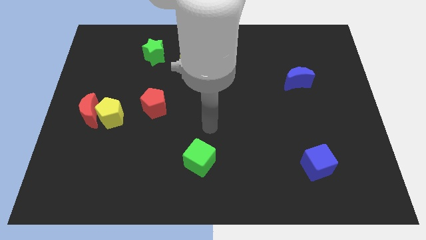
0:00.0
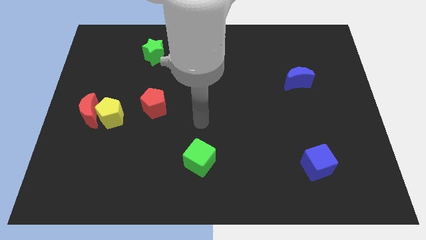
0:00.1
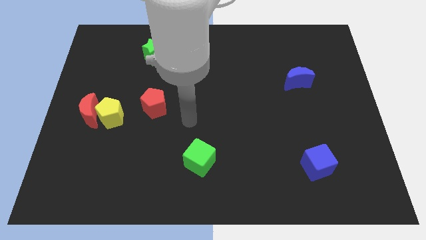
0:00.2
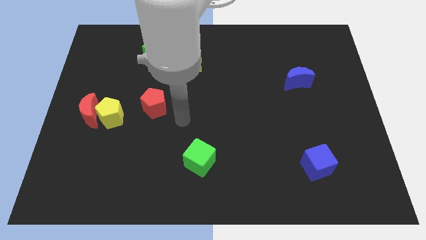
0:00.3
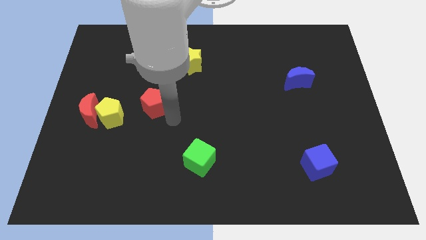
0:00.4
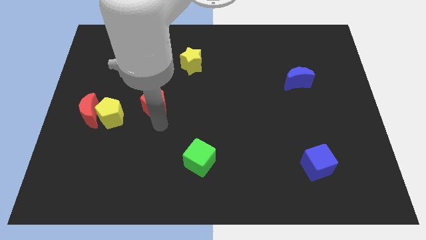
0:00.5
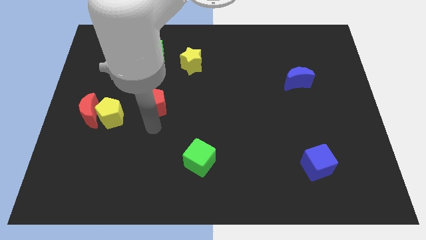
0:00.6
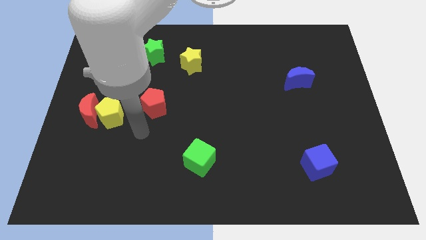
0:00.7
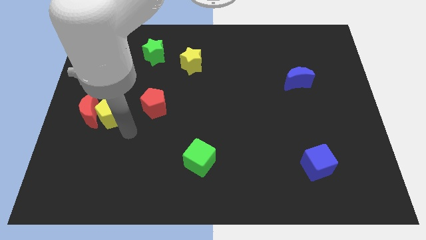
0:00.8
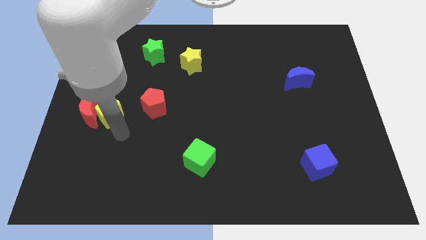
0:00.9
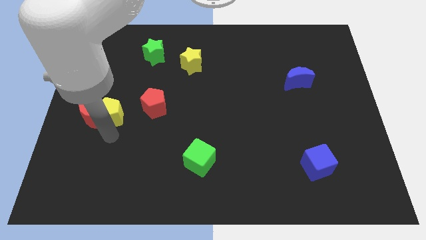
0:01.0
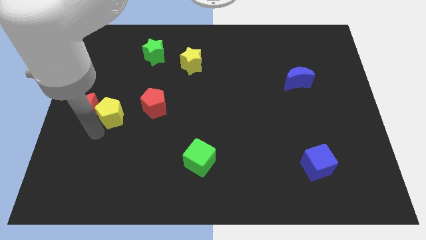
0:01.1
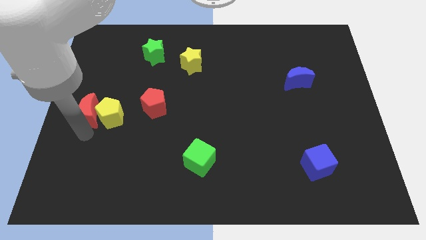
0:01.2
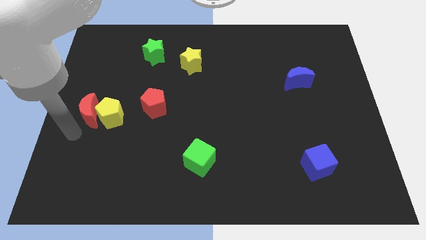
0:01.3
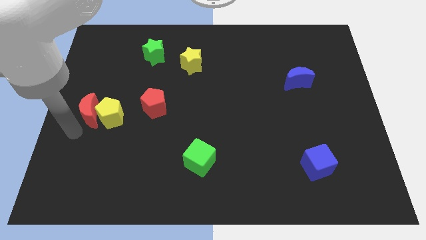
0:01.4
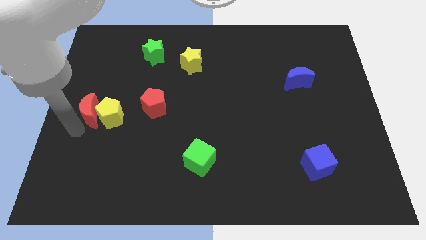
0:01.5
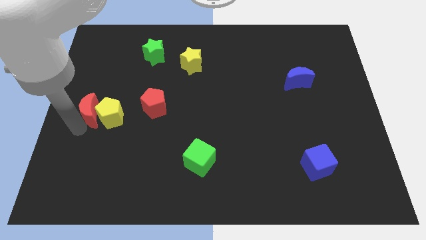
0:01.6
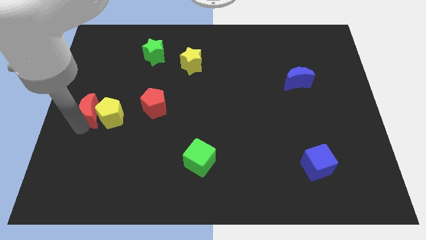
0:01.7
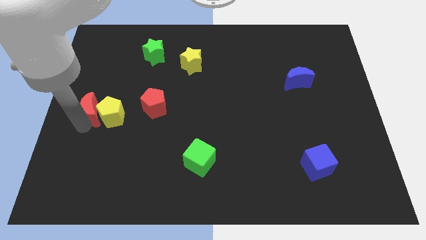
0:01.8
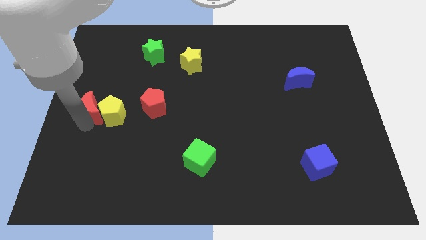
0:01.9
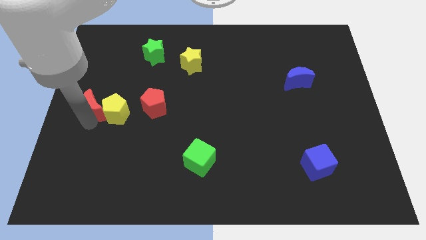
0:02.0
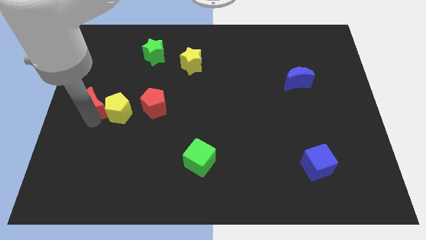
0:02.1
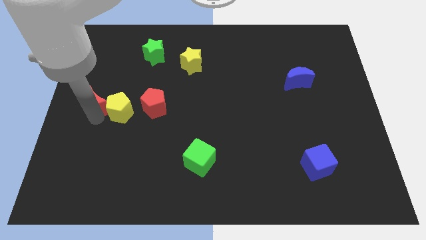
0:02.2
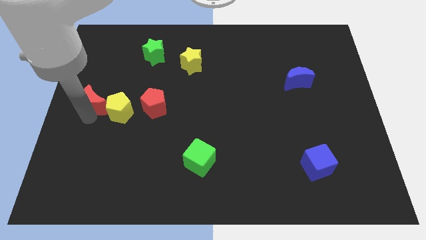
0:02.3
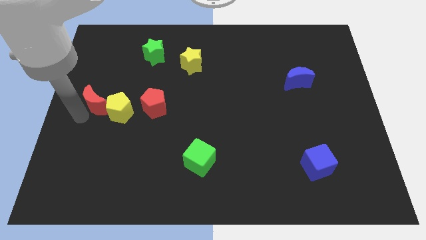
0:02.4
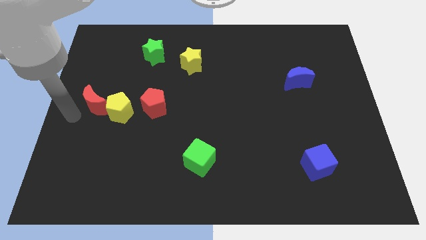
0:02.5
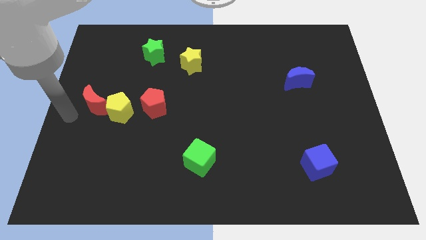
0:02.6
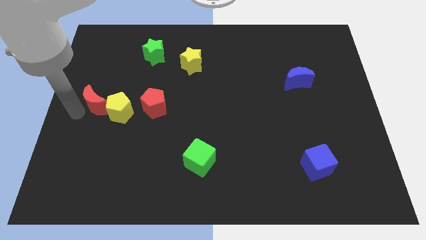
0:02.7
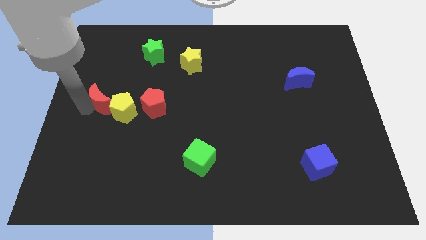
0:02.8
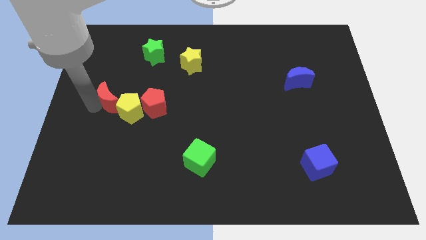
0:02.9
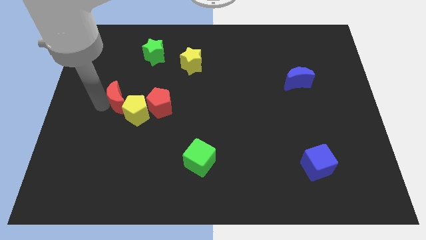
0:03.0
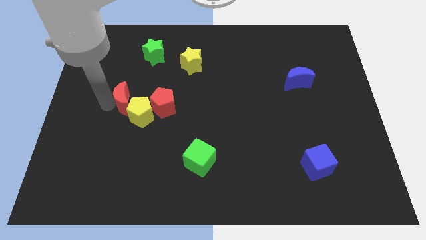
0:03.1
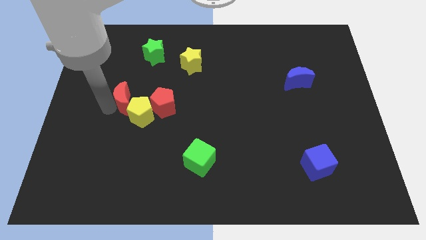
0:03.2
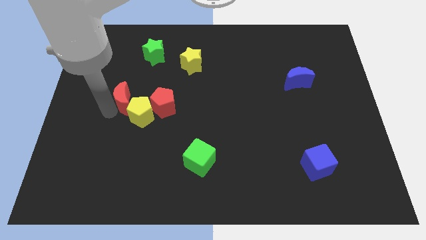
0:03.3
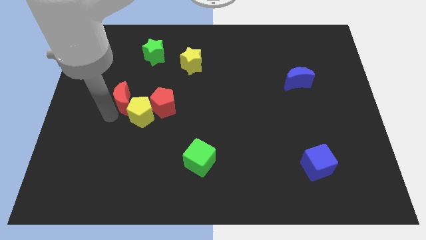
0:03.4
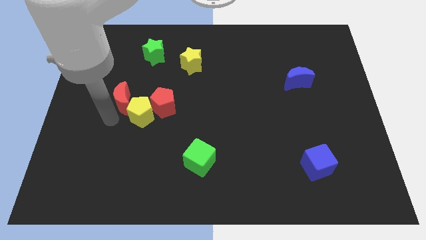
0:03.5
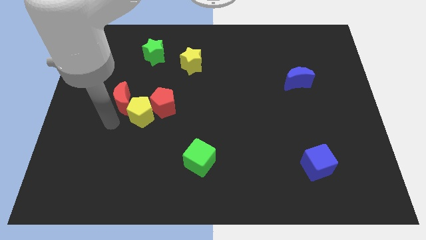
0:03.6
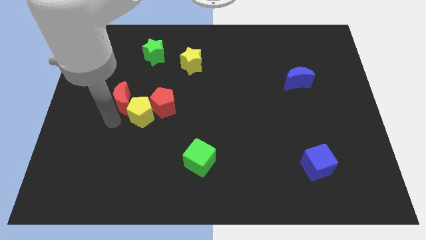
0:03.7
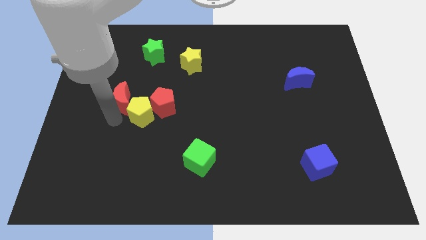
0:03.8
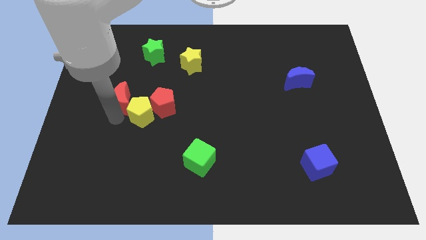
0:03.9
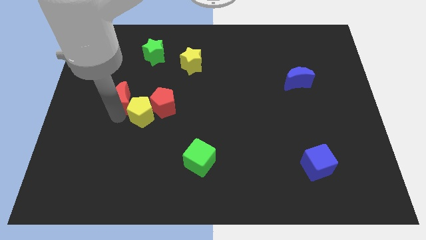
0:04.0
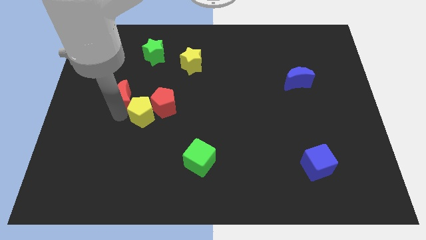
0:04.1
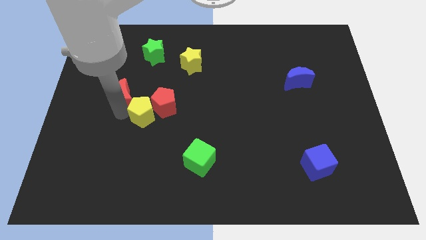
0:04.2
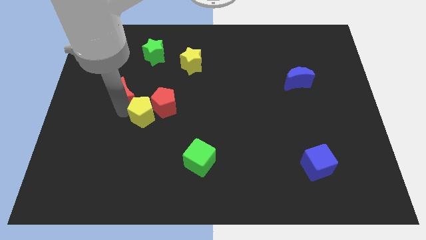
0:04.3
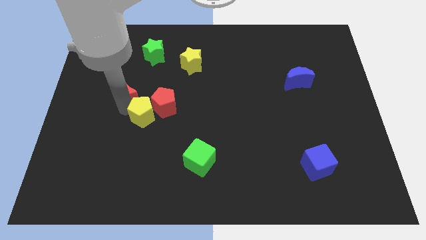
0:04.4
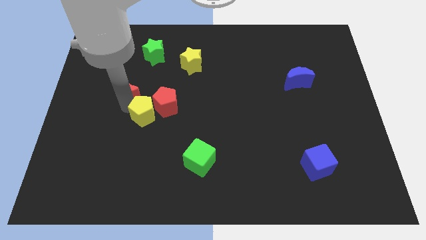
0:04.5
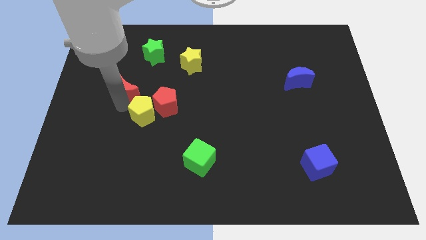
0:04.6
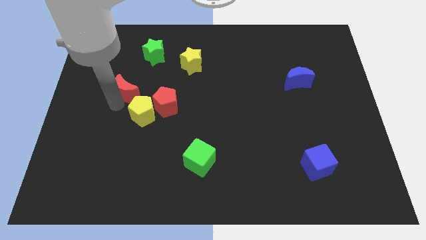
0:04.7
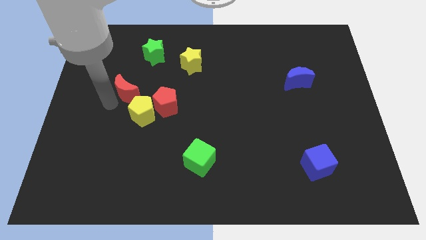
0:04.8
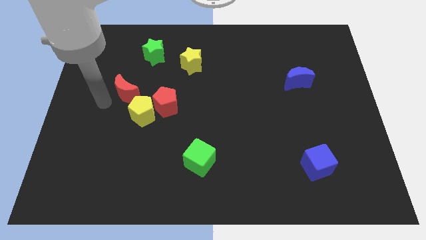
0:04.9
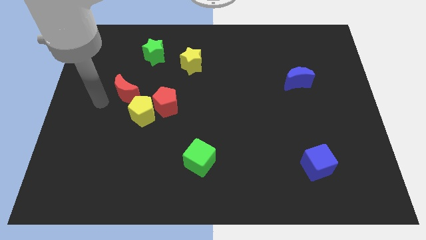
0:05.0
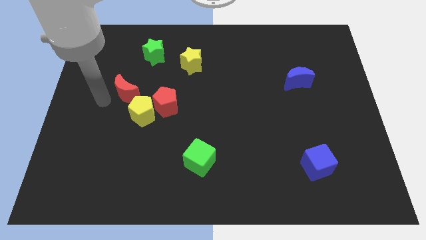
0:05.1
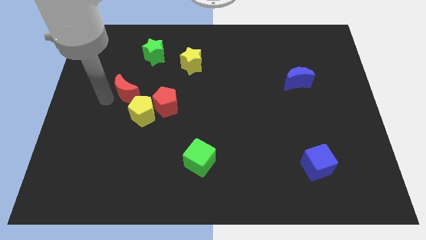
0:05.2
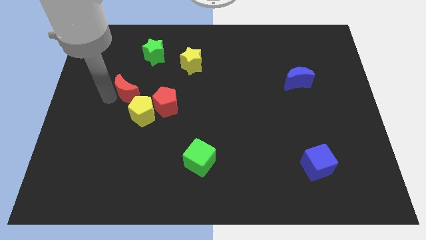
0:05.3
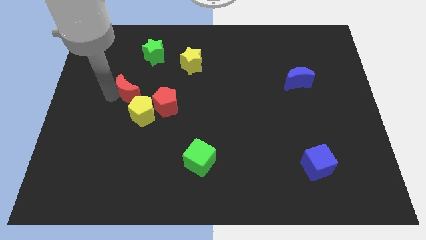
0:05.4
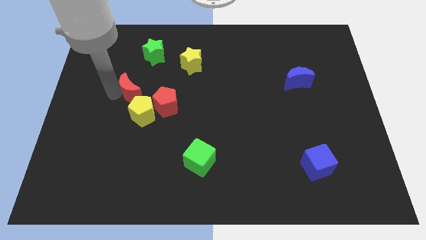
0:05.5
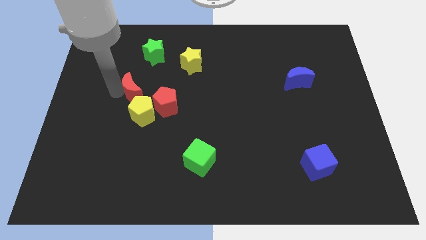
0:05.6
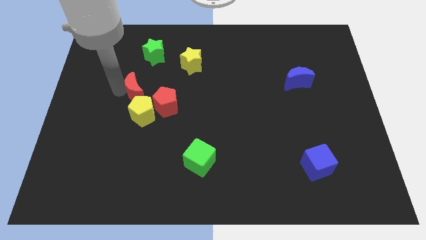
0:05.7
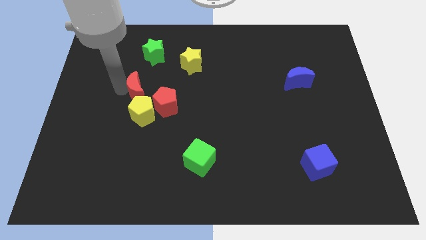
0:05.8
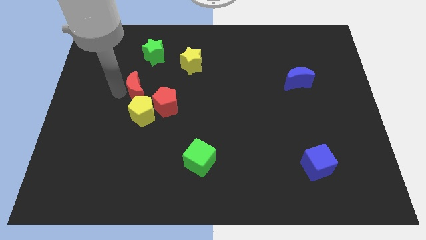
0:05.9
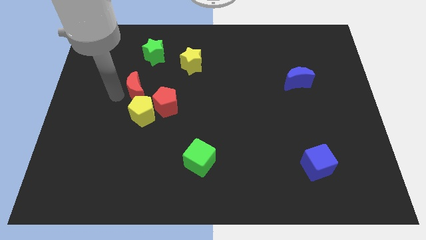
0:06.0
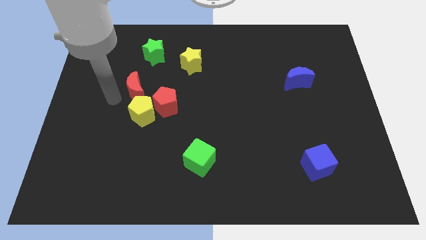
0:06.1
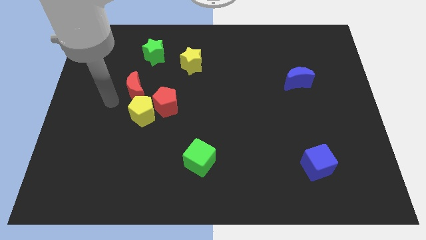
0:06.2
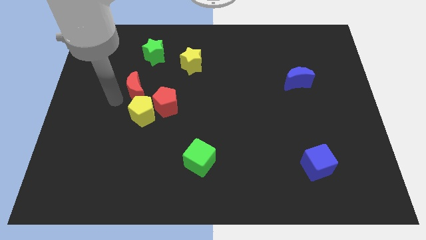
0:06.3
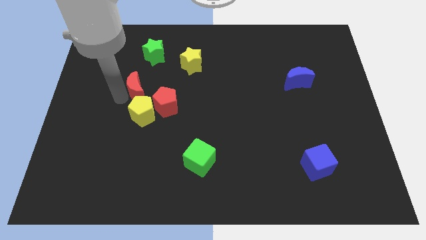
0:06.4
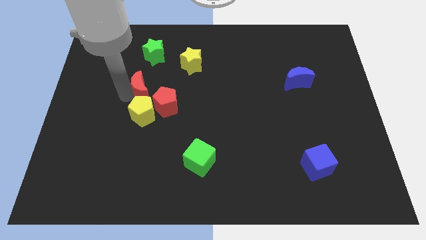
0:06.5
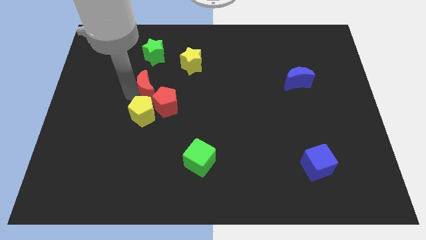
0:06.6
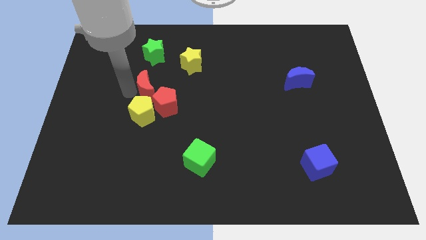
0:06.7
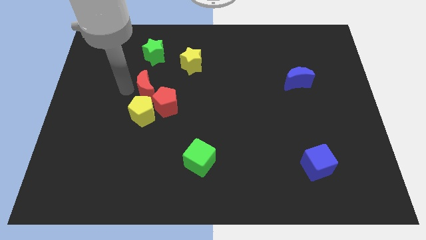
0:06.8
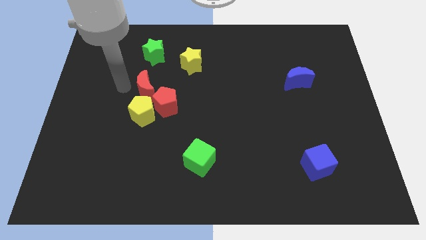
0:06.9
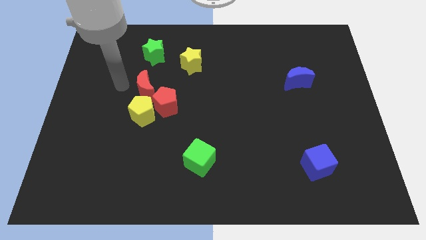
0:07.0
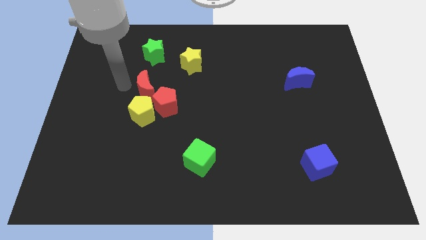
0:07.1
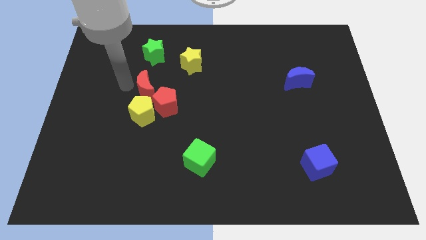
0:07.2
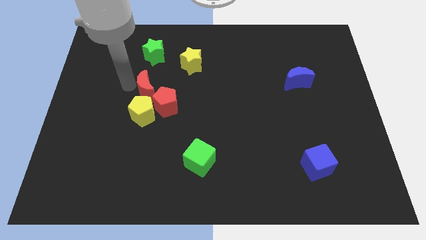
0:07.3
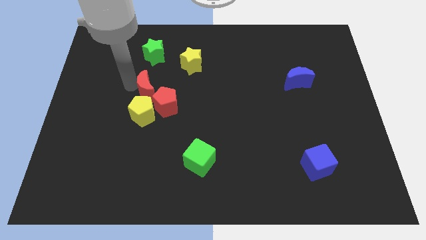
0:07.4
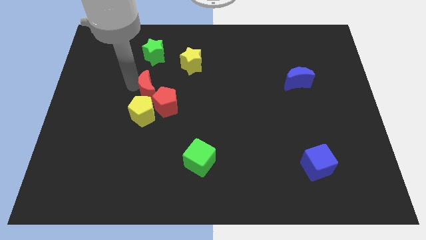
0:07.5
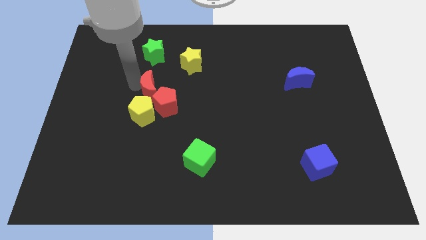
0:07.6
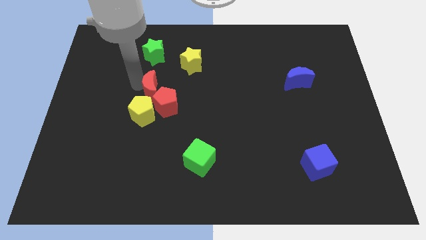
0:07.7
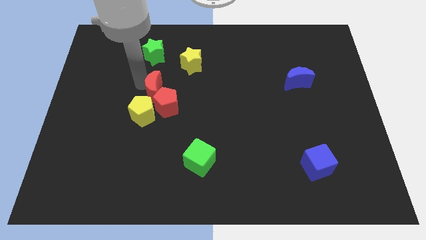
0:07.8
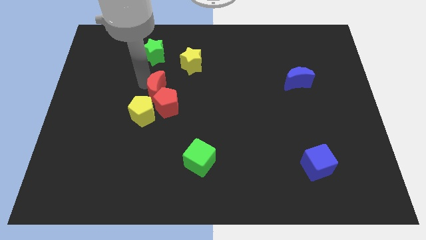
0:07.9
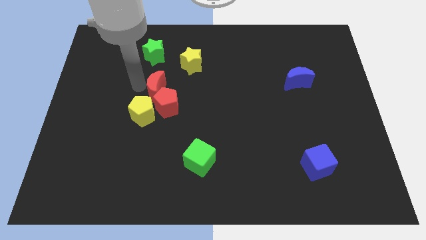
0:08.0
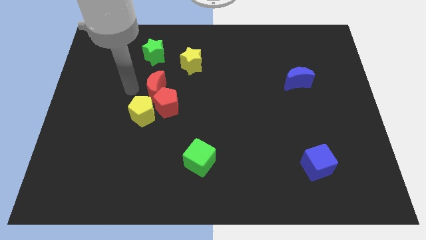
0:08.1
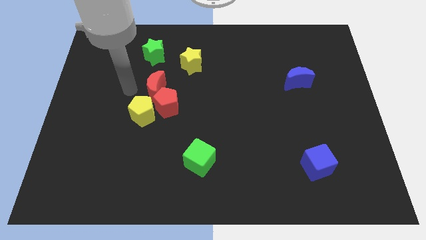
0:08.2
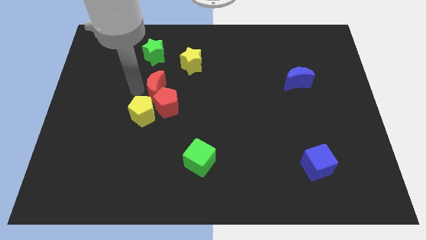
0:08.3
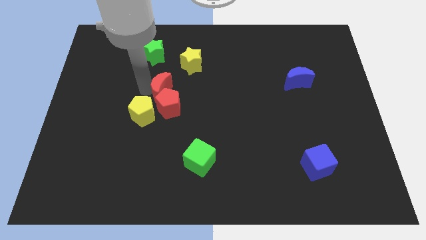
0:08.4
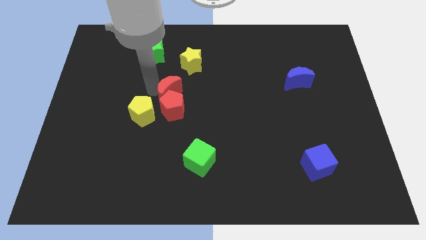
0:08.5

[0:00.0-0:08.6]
put the red moon diagonally up and to the right of the red pentagon
